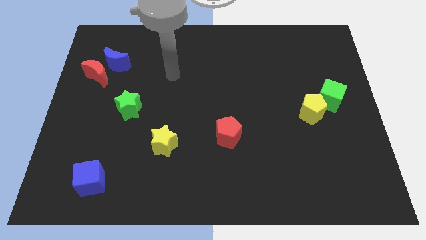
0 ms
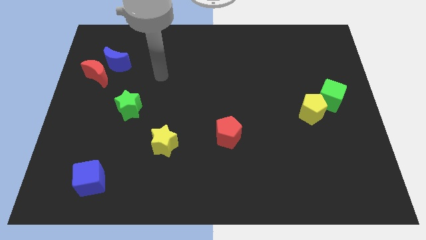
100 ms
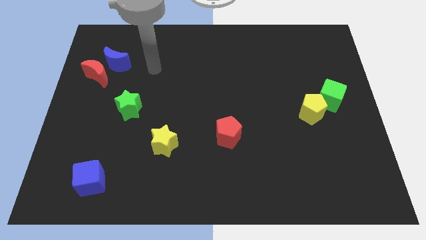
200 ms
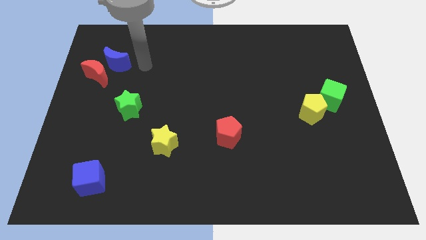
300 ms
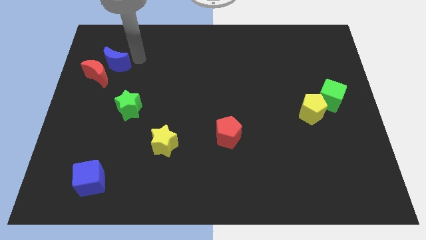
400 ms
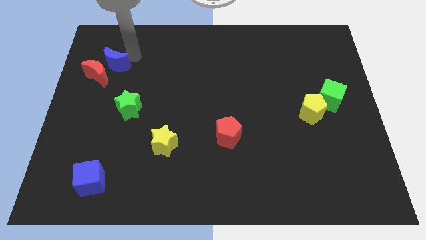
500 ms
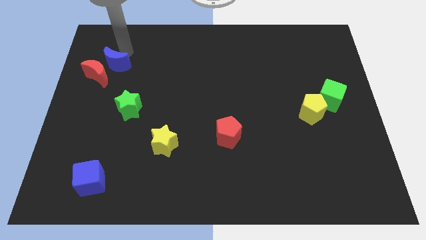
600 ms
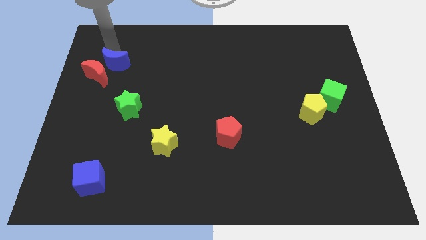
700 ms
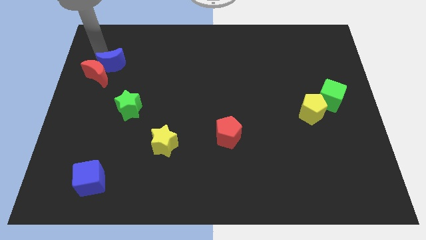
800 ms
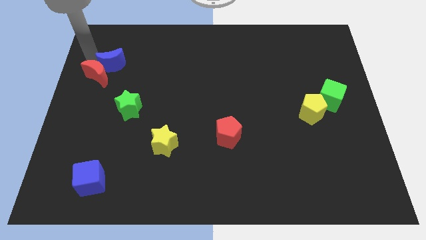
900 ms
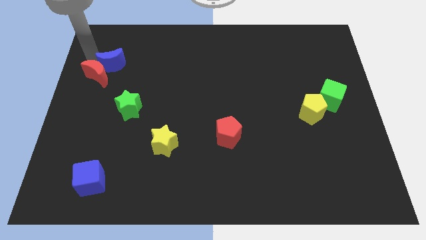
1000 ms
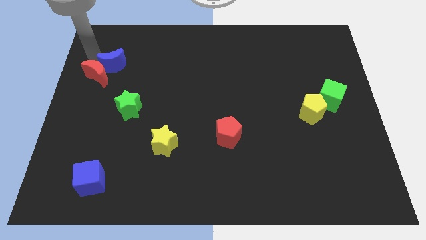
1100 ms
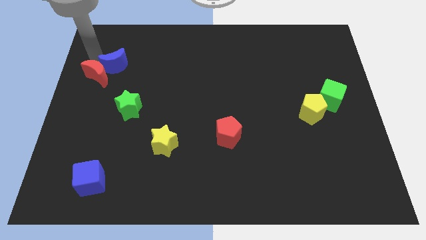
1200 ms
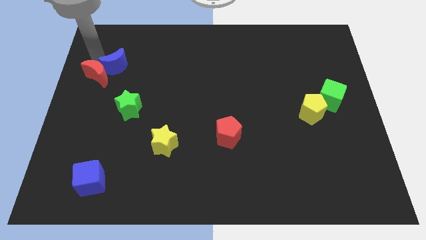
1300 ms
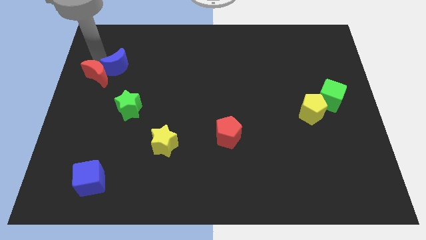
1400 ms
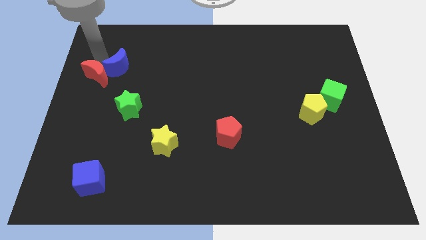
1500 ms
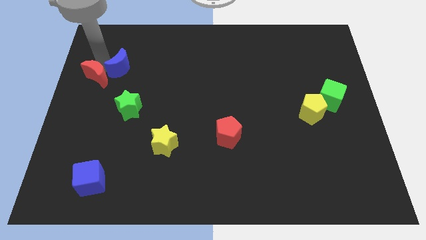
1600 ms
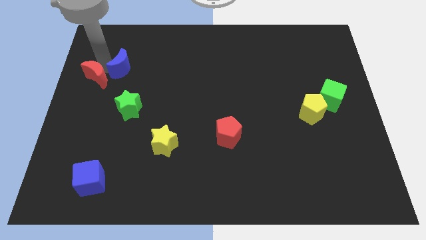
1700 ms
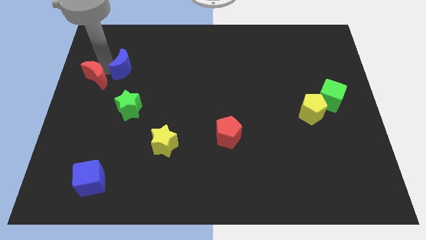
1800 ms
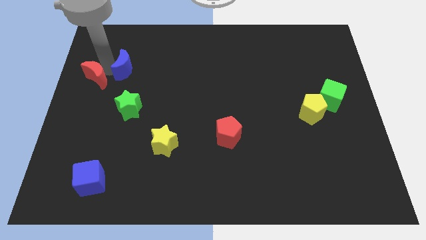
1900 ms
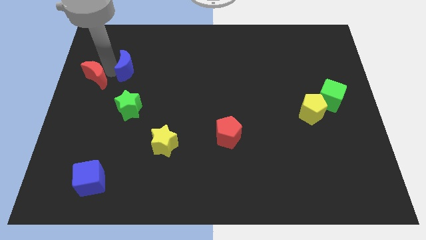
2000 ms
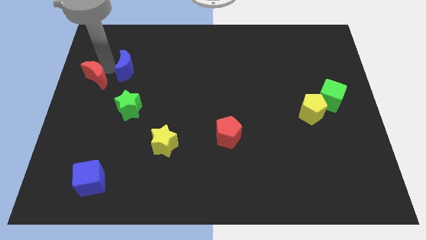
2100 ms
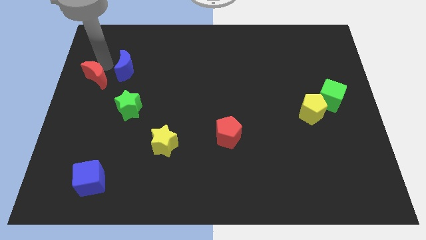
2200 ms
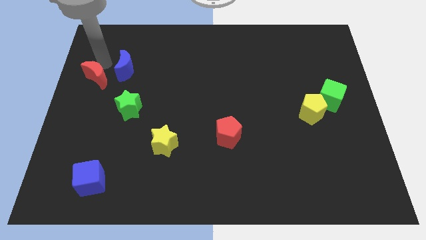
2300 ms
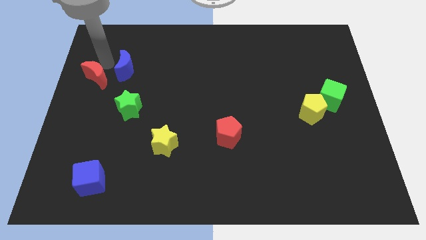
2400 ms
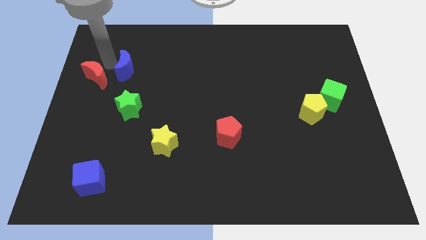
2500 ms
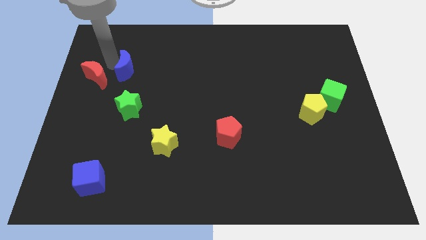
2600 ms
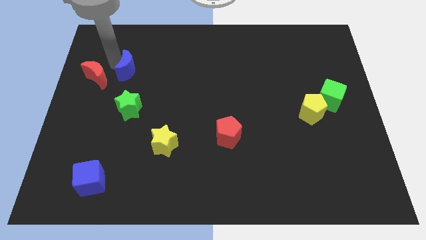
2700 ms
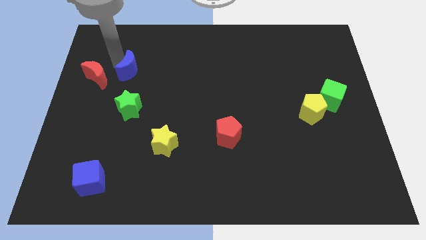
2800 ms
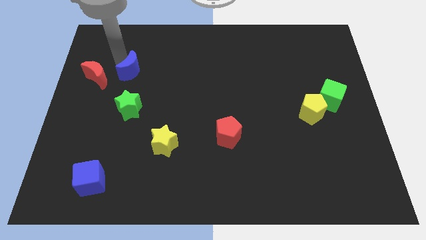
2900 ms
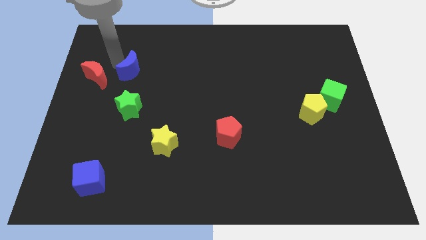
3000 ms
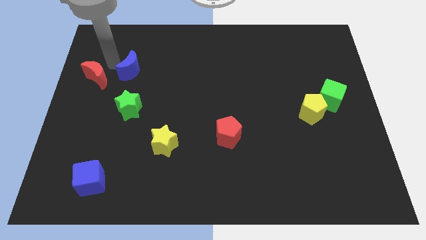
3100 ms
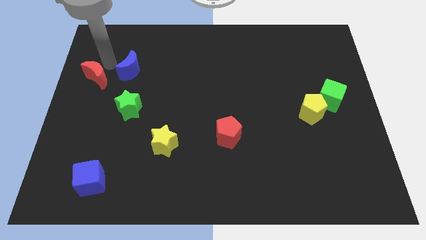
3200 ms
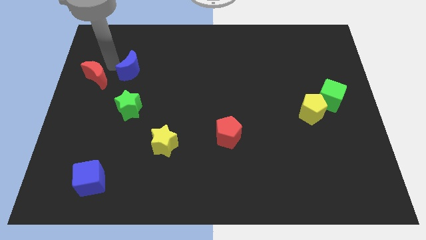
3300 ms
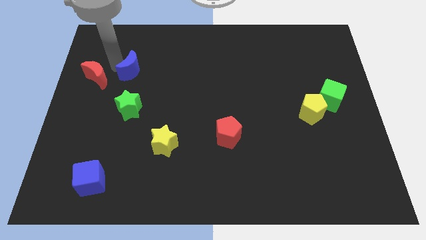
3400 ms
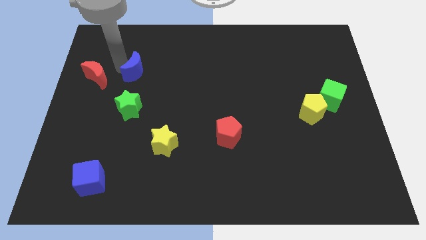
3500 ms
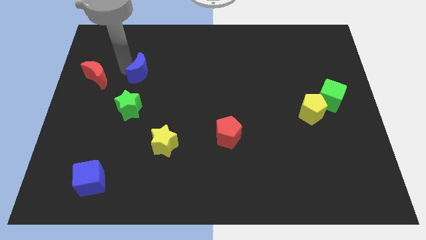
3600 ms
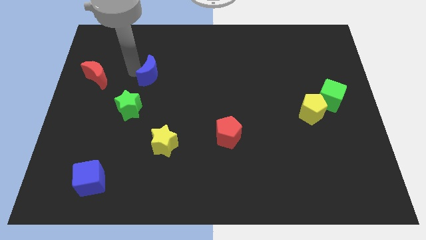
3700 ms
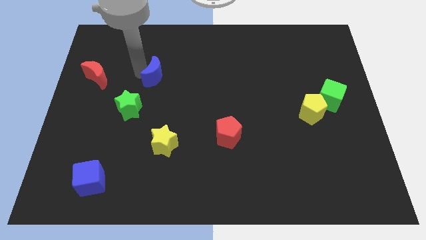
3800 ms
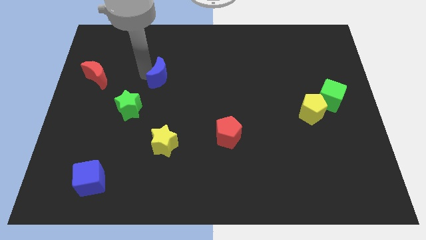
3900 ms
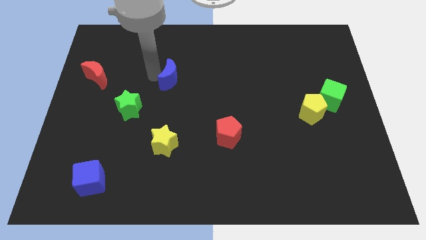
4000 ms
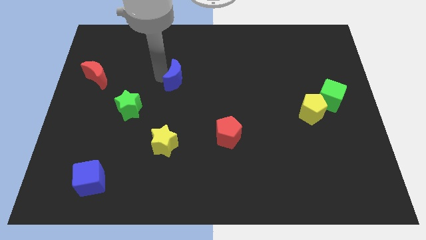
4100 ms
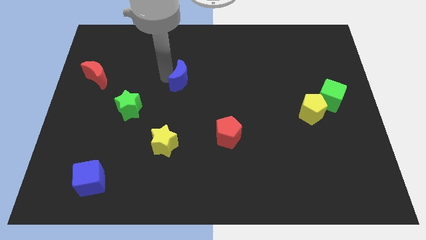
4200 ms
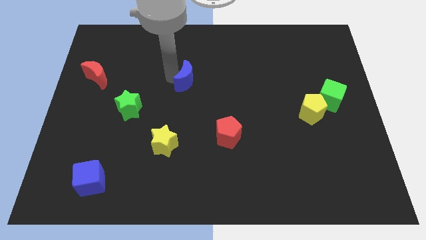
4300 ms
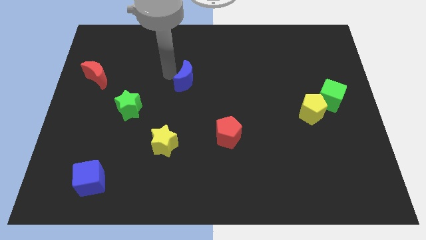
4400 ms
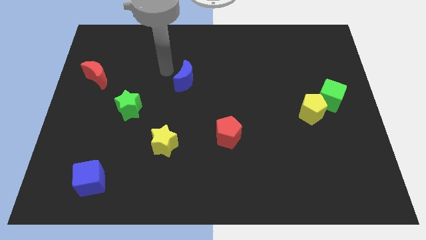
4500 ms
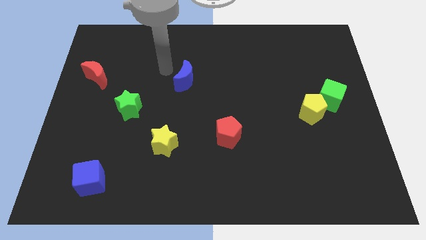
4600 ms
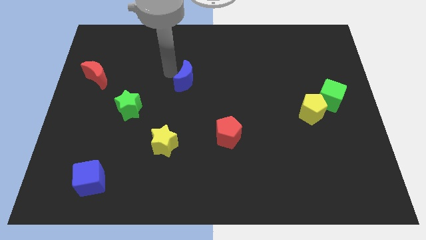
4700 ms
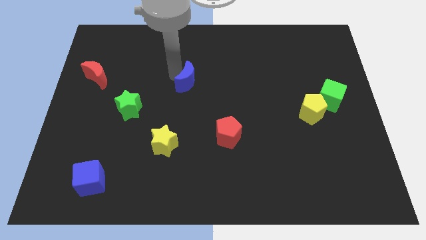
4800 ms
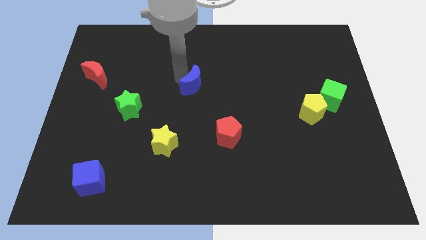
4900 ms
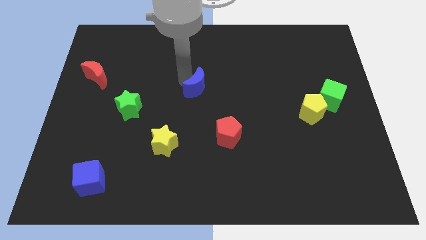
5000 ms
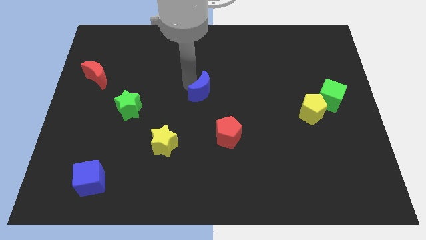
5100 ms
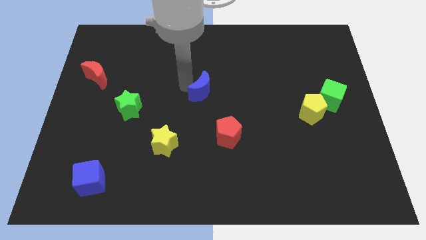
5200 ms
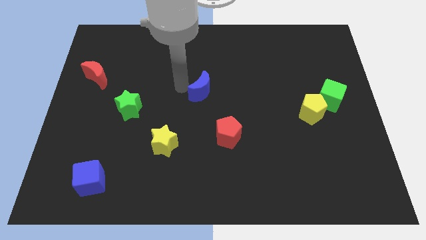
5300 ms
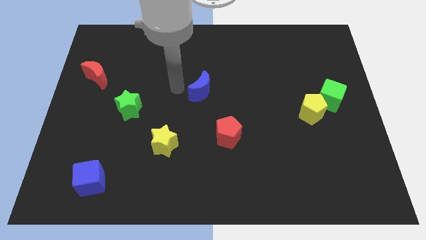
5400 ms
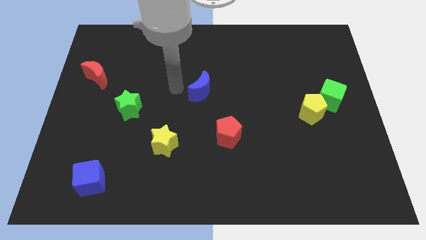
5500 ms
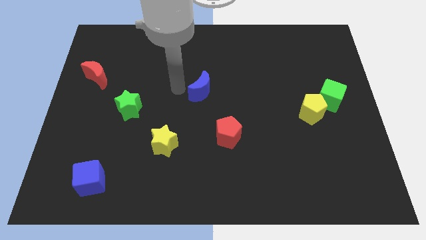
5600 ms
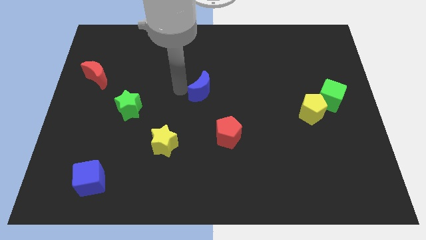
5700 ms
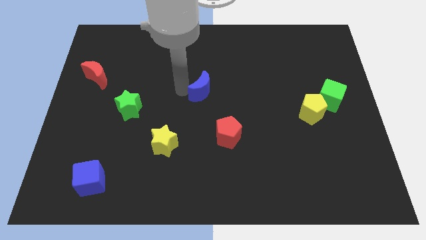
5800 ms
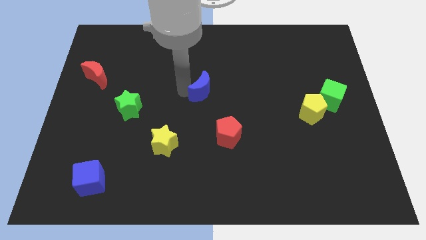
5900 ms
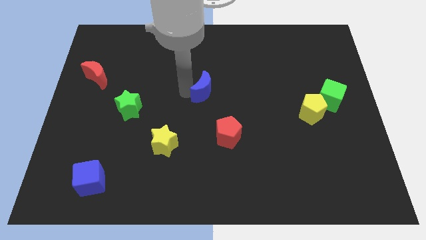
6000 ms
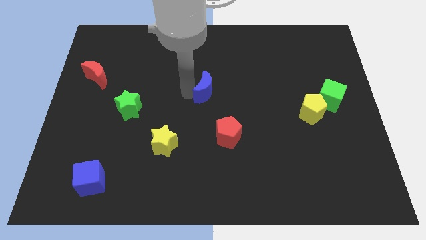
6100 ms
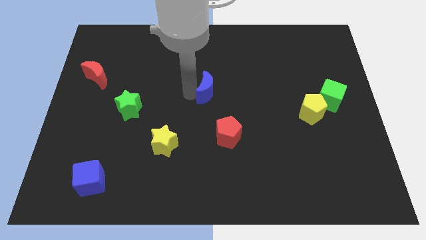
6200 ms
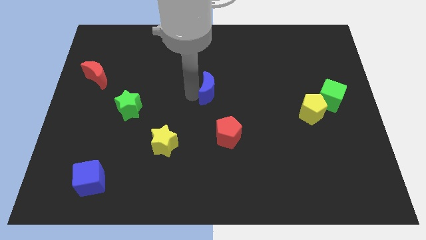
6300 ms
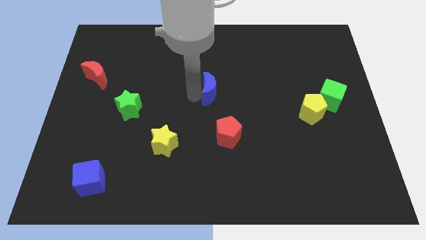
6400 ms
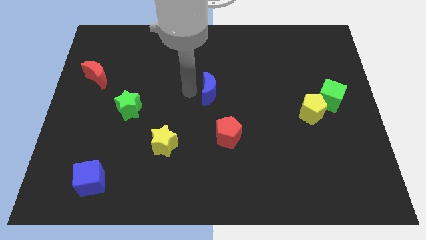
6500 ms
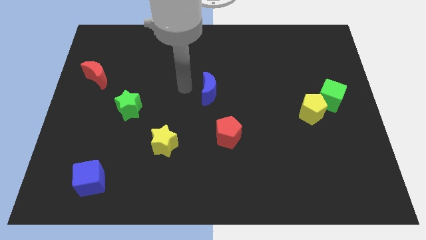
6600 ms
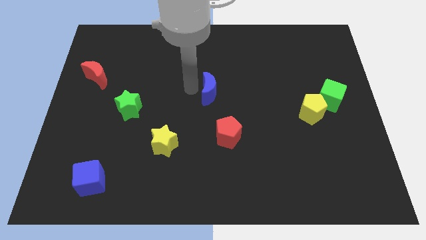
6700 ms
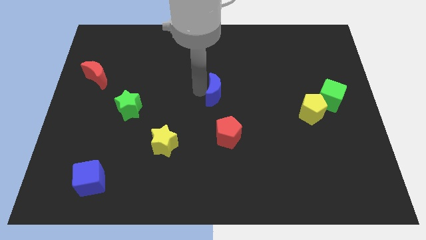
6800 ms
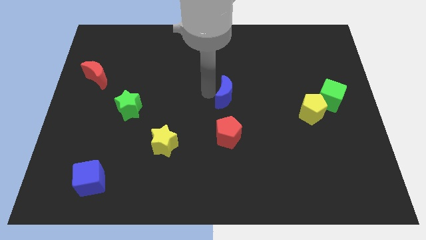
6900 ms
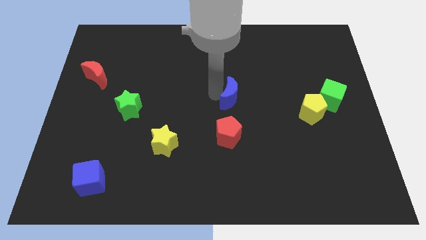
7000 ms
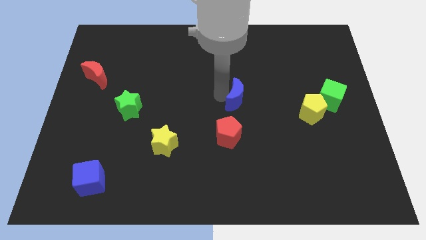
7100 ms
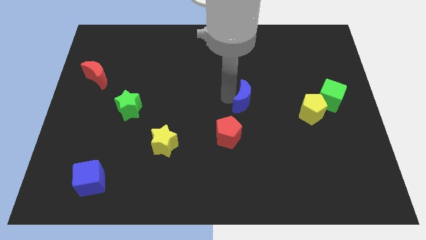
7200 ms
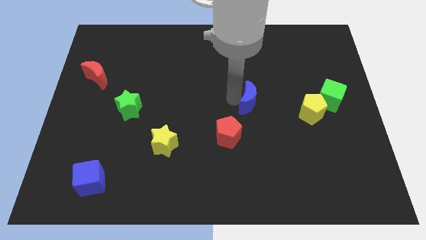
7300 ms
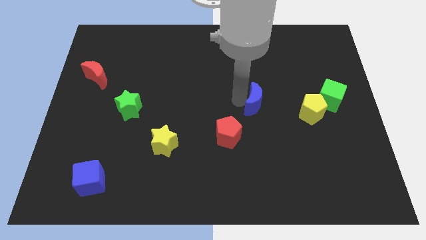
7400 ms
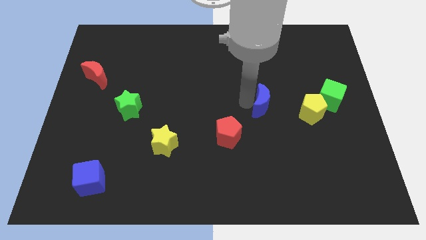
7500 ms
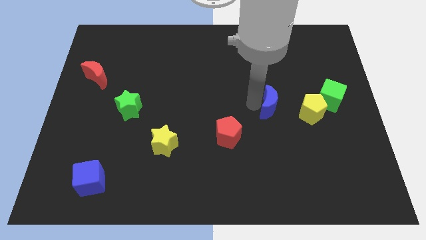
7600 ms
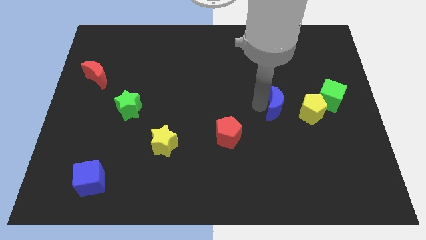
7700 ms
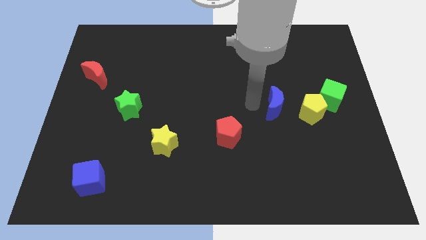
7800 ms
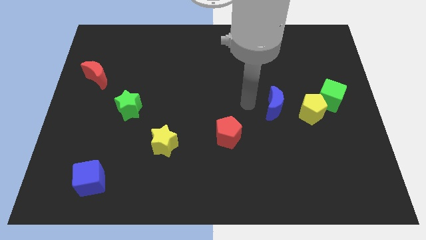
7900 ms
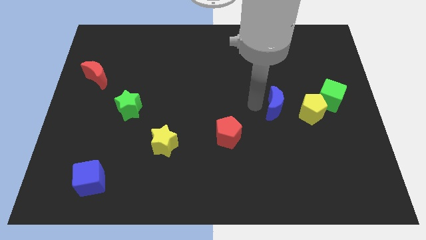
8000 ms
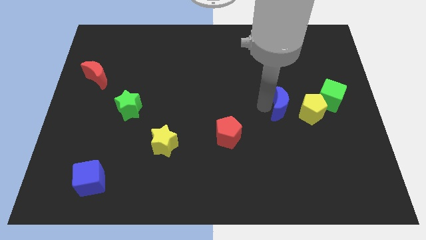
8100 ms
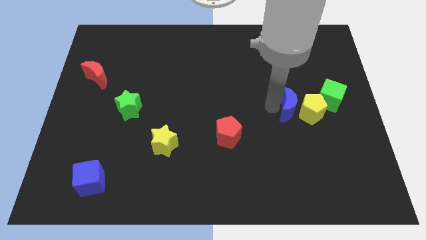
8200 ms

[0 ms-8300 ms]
slide the blue moon to the yellow pentagon
